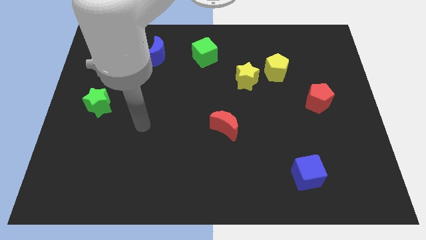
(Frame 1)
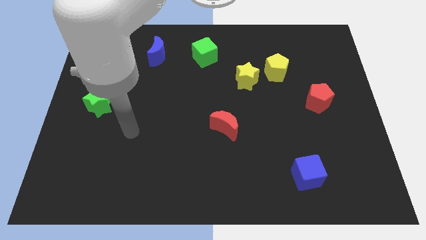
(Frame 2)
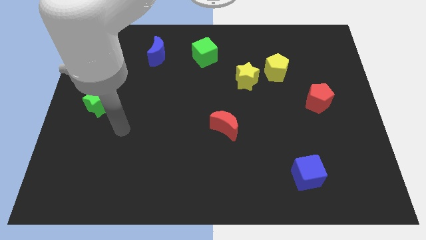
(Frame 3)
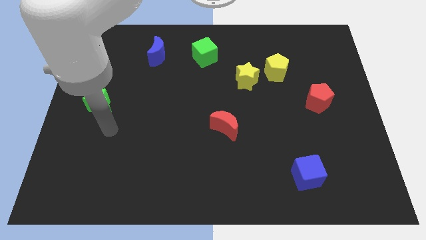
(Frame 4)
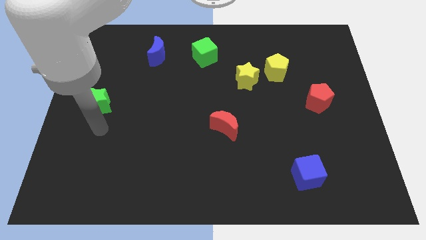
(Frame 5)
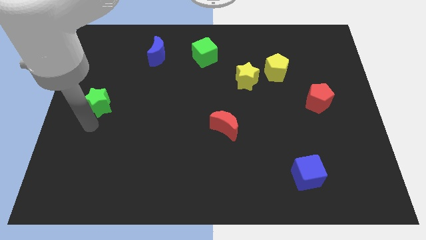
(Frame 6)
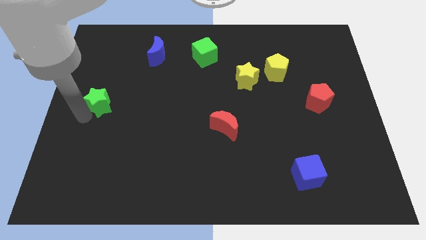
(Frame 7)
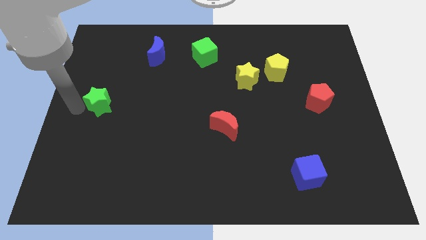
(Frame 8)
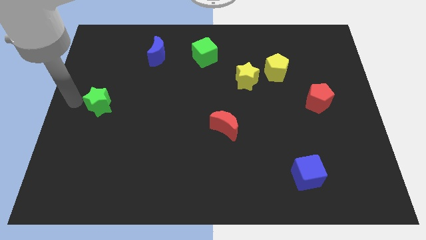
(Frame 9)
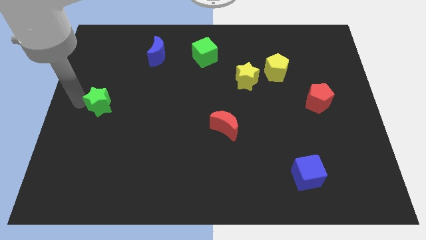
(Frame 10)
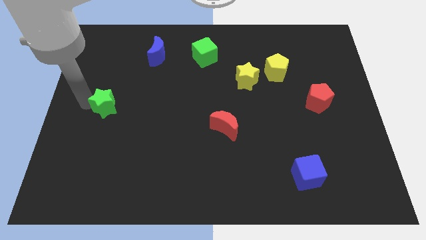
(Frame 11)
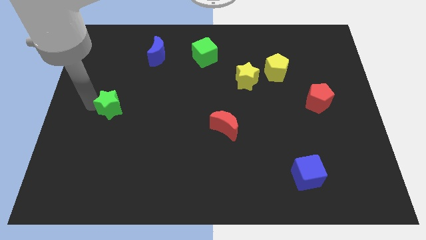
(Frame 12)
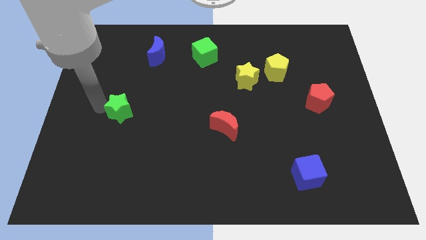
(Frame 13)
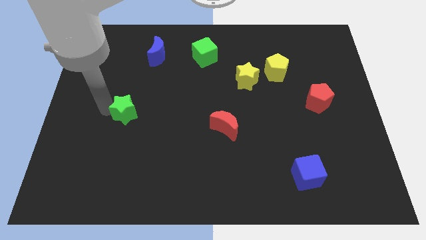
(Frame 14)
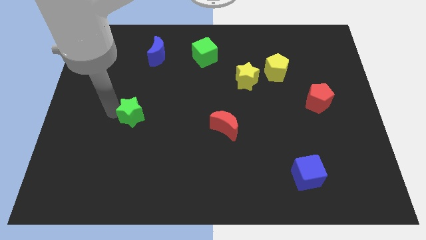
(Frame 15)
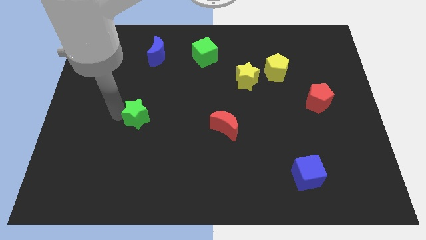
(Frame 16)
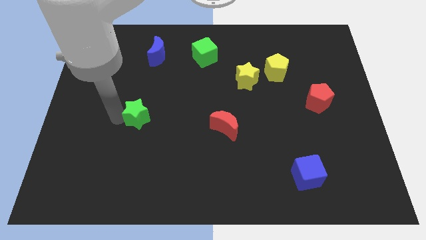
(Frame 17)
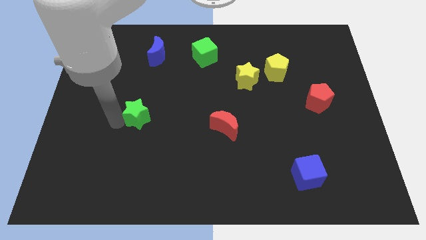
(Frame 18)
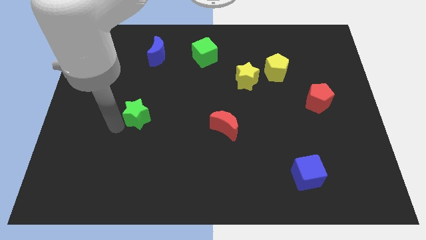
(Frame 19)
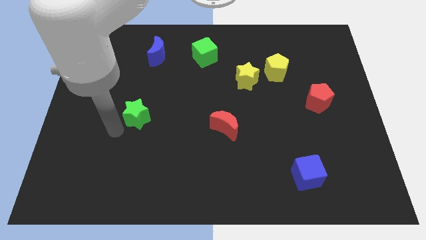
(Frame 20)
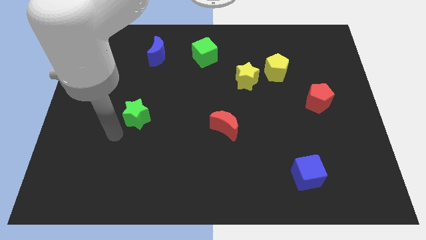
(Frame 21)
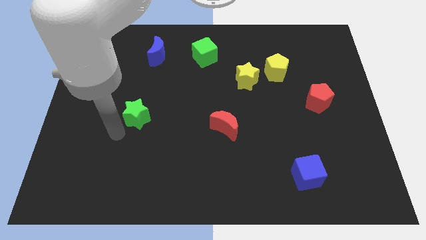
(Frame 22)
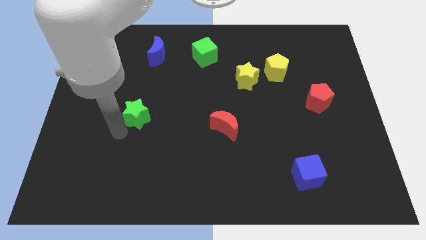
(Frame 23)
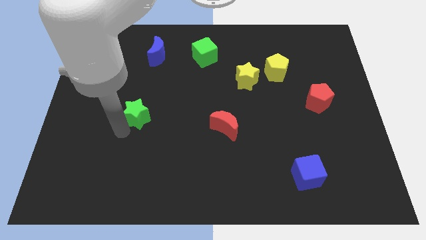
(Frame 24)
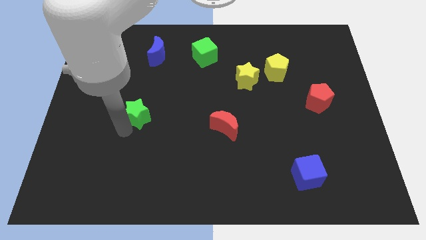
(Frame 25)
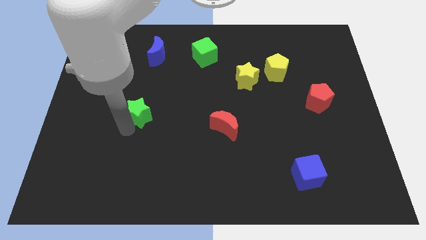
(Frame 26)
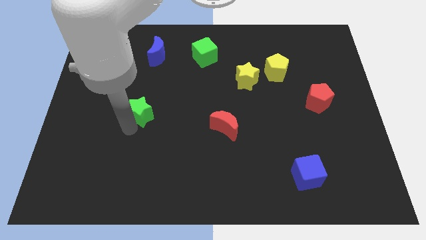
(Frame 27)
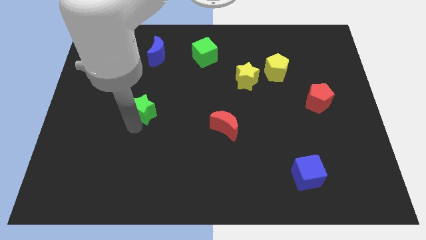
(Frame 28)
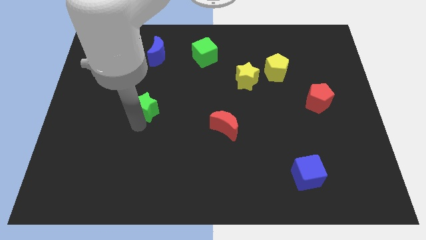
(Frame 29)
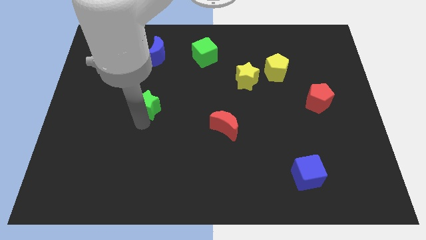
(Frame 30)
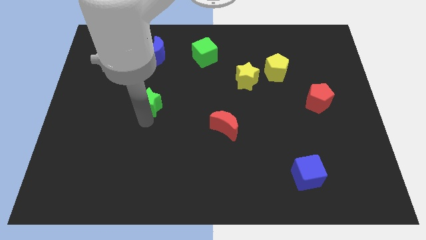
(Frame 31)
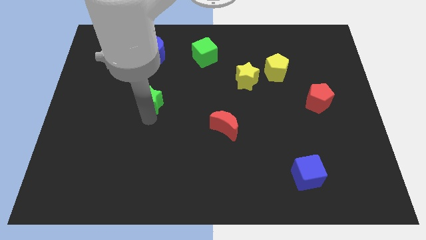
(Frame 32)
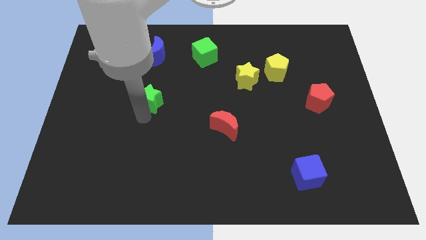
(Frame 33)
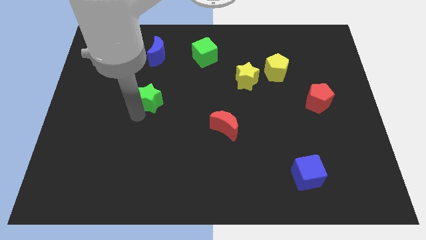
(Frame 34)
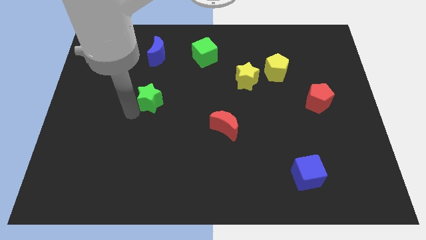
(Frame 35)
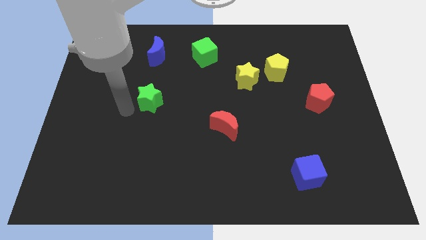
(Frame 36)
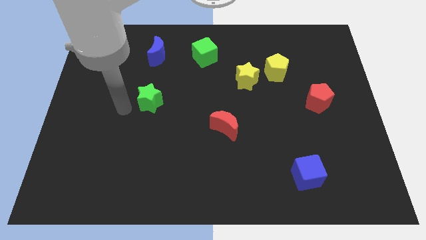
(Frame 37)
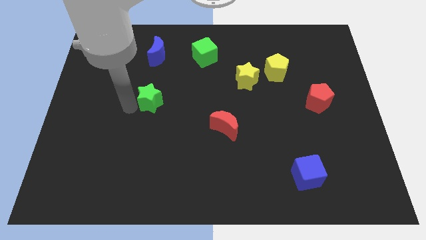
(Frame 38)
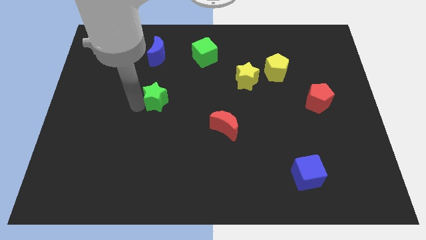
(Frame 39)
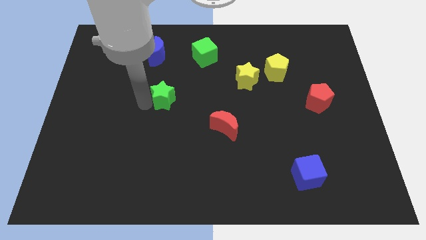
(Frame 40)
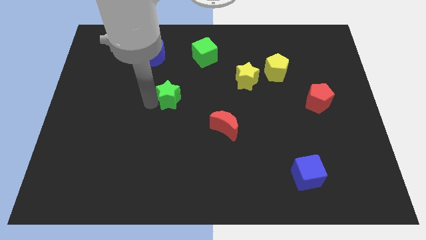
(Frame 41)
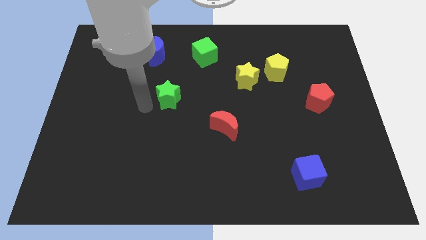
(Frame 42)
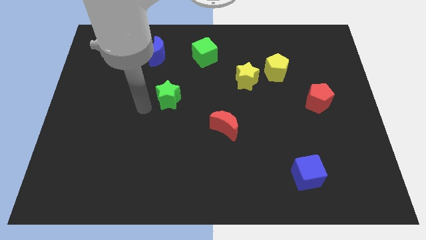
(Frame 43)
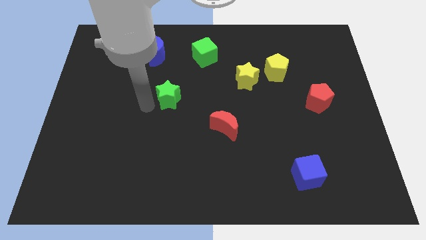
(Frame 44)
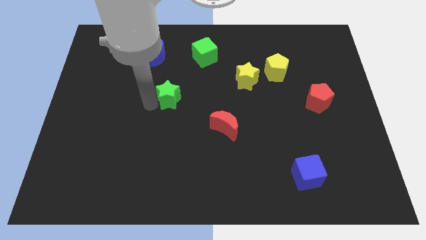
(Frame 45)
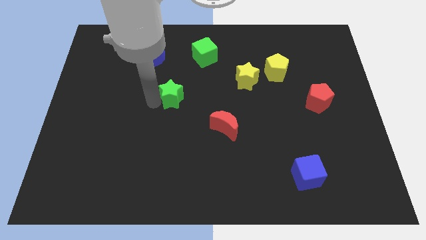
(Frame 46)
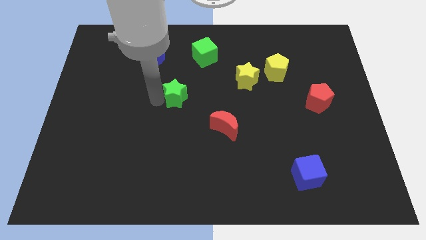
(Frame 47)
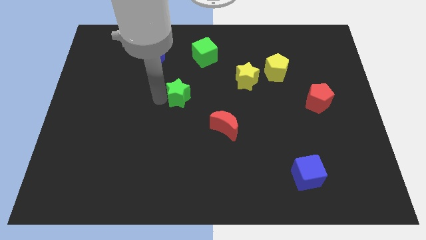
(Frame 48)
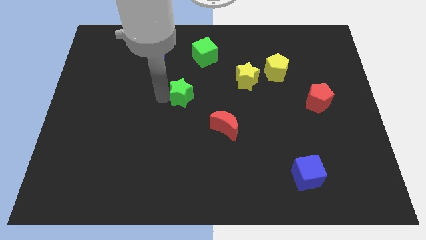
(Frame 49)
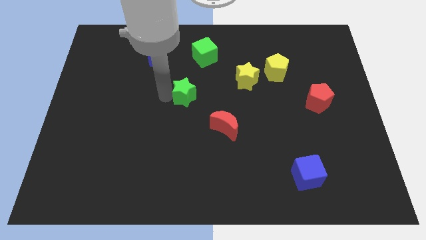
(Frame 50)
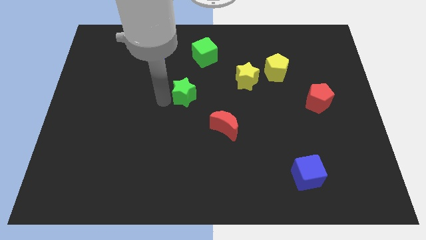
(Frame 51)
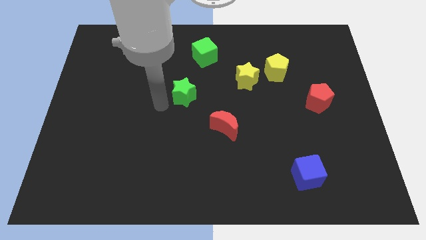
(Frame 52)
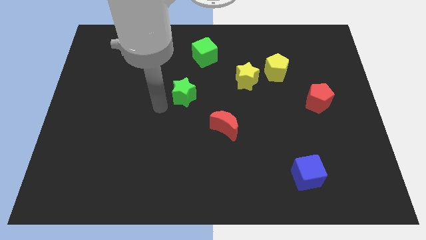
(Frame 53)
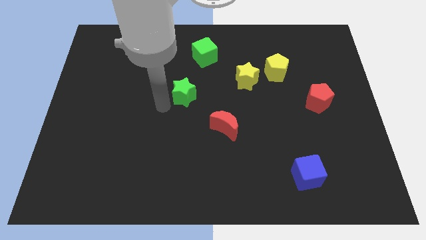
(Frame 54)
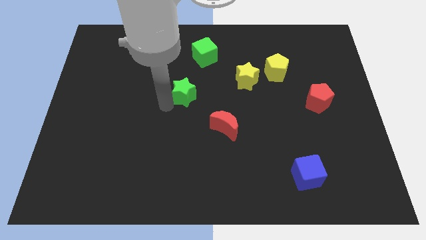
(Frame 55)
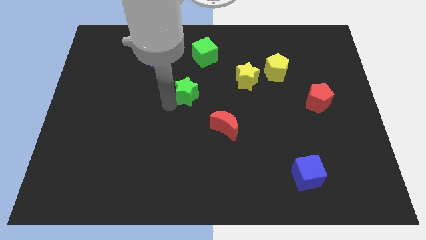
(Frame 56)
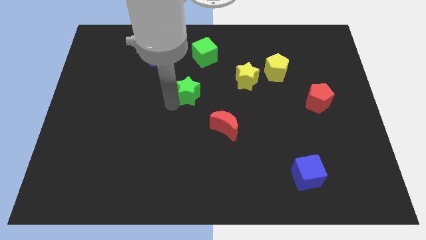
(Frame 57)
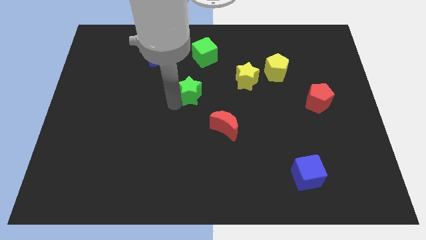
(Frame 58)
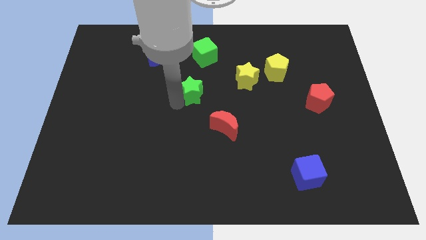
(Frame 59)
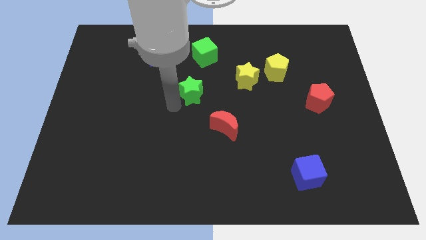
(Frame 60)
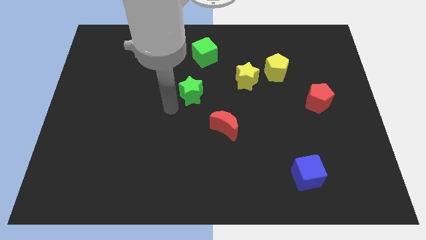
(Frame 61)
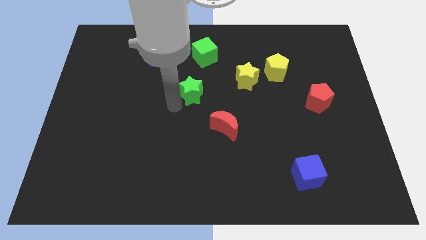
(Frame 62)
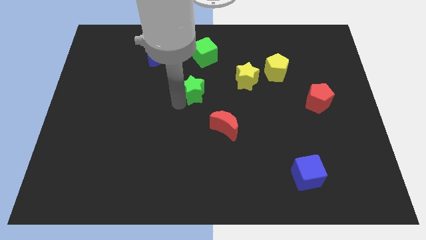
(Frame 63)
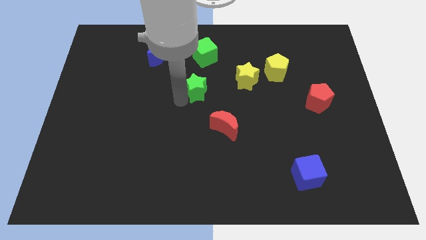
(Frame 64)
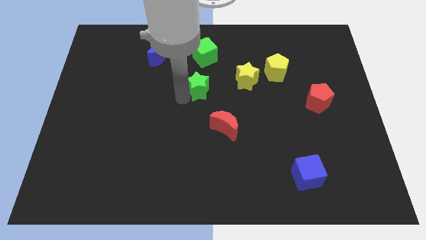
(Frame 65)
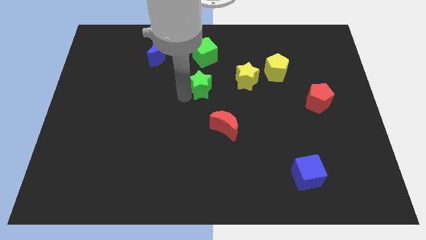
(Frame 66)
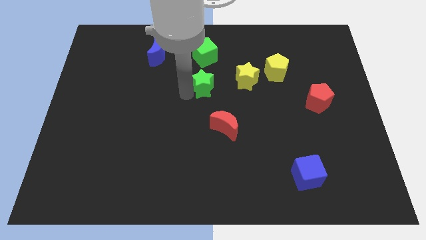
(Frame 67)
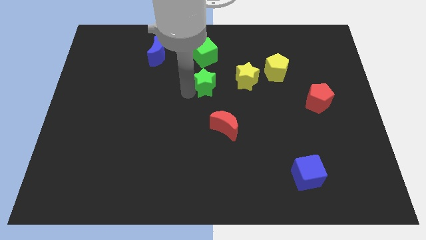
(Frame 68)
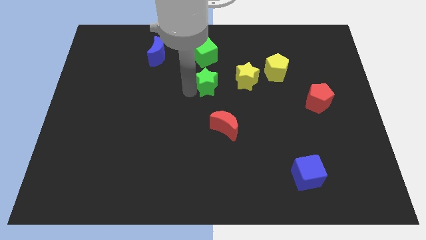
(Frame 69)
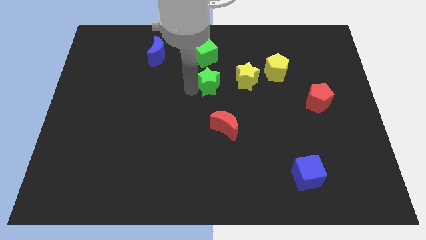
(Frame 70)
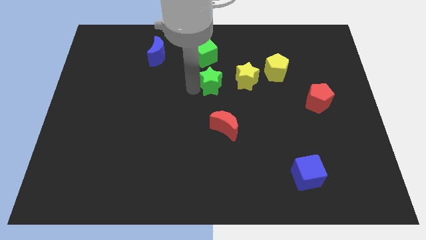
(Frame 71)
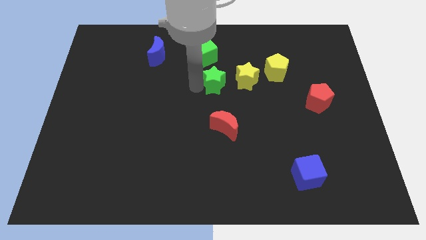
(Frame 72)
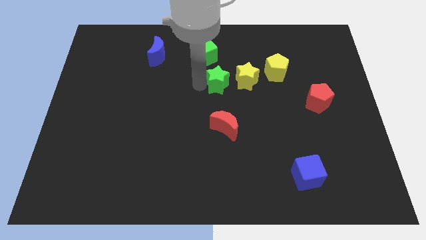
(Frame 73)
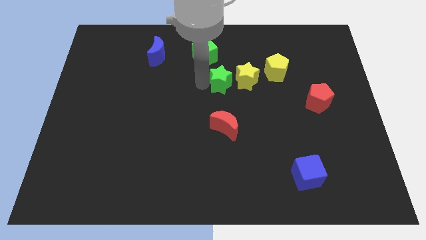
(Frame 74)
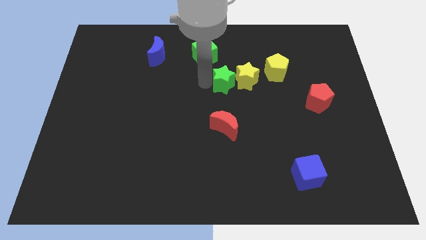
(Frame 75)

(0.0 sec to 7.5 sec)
push the green star next to the yellow star

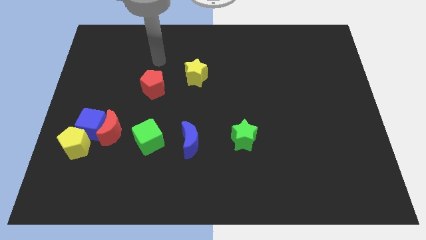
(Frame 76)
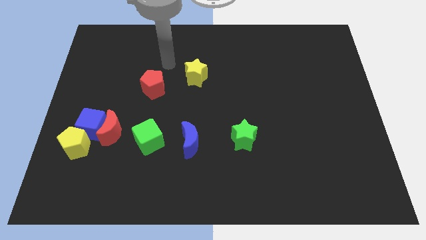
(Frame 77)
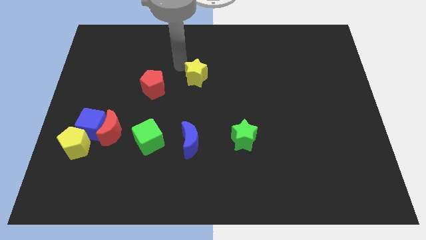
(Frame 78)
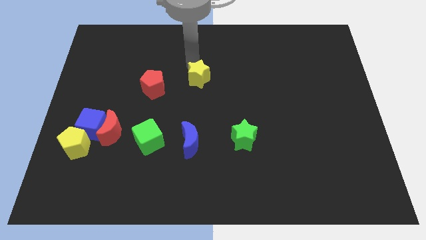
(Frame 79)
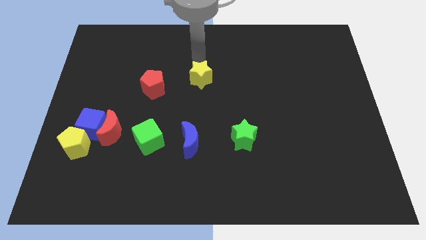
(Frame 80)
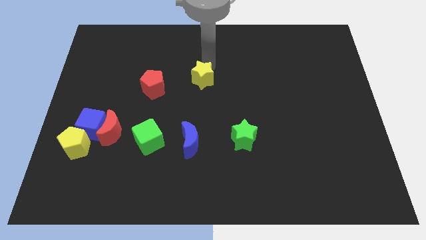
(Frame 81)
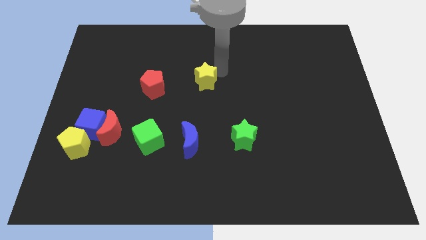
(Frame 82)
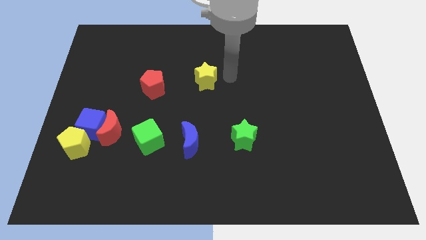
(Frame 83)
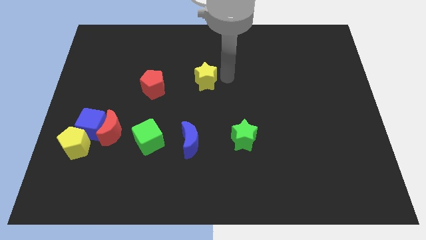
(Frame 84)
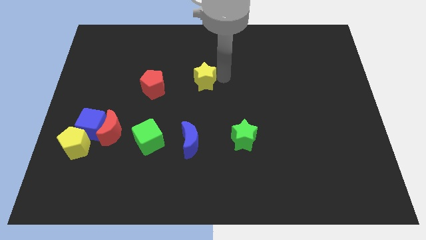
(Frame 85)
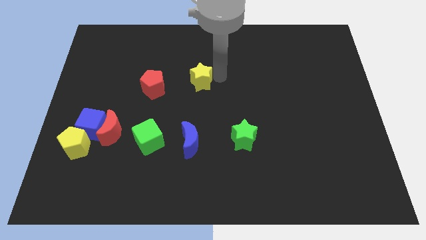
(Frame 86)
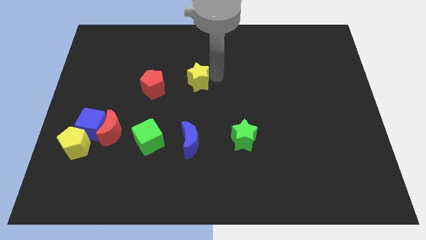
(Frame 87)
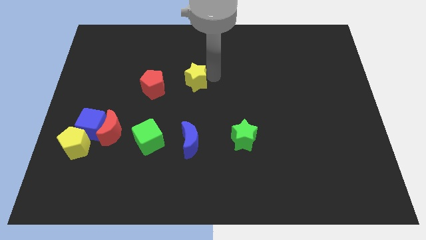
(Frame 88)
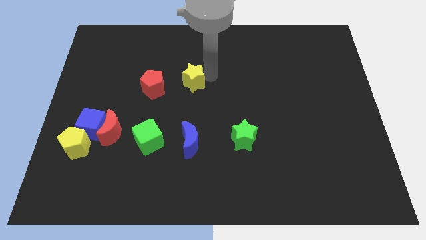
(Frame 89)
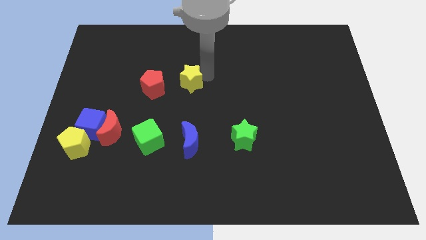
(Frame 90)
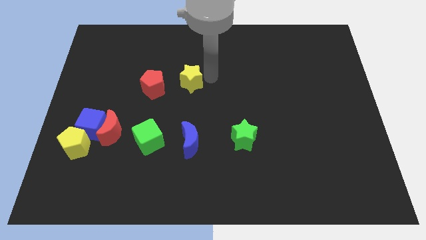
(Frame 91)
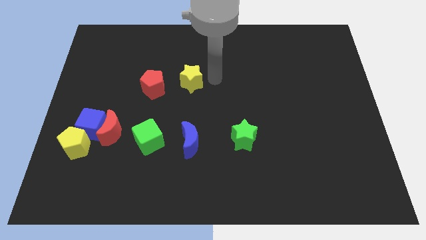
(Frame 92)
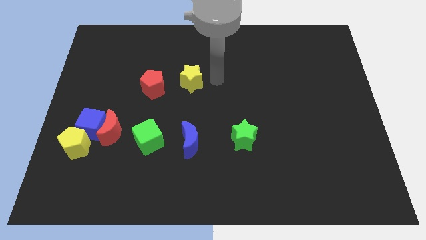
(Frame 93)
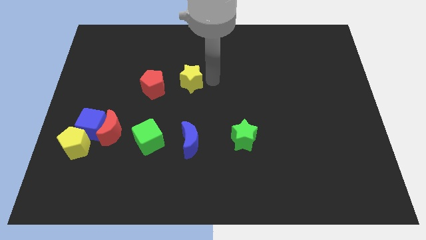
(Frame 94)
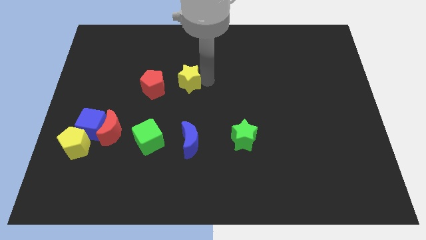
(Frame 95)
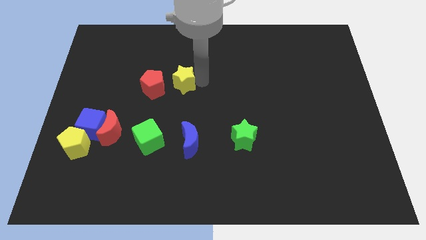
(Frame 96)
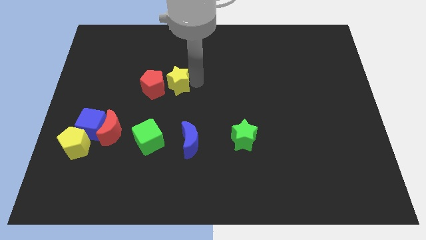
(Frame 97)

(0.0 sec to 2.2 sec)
slide the yellow star close to the red pentagon
